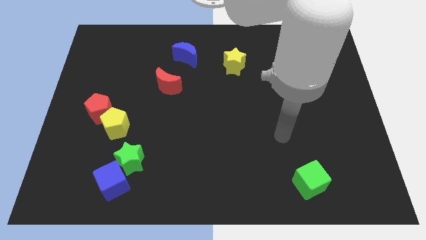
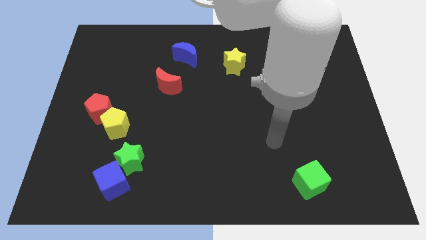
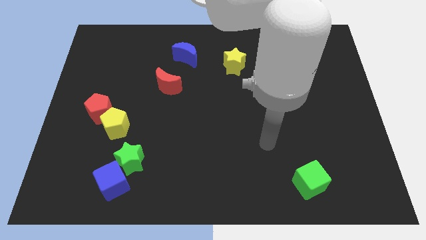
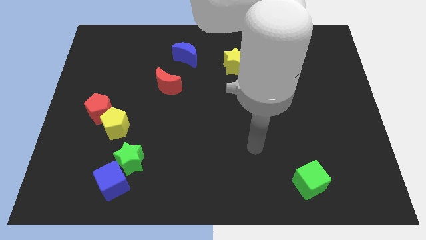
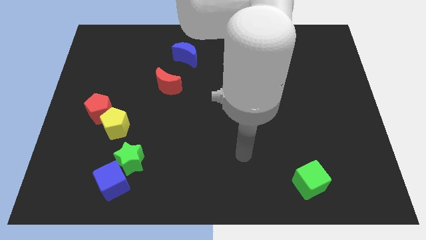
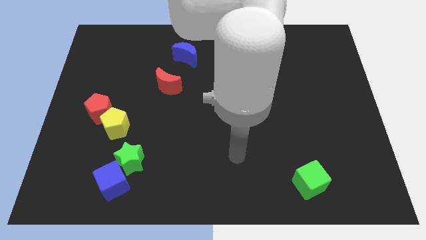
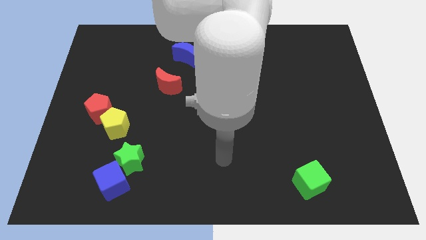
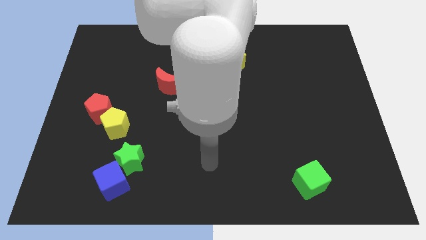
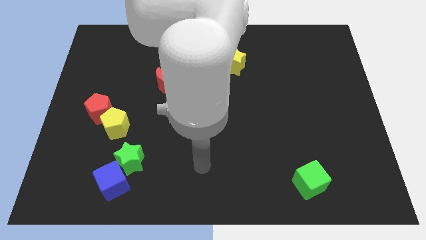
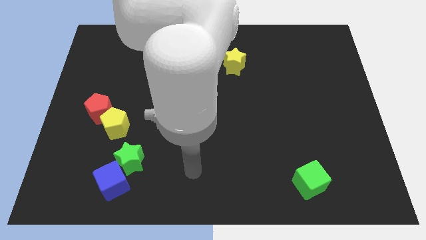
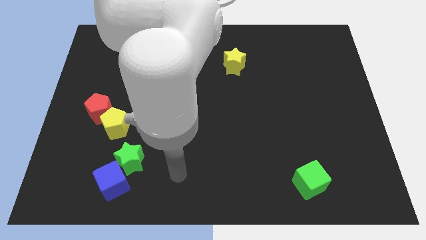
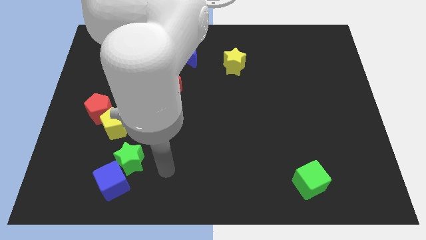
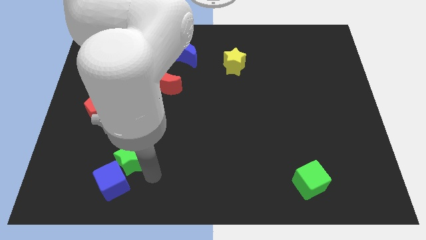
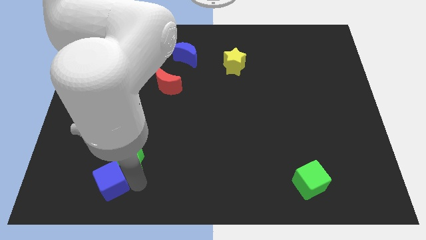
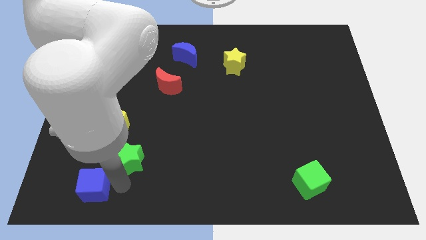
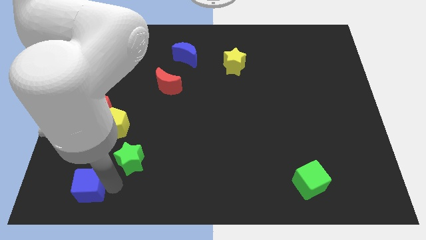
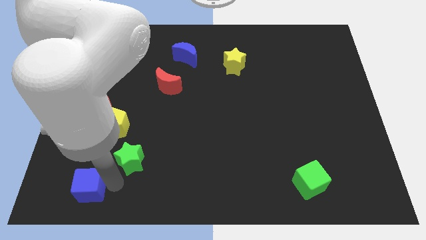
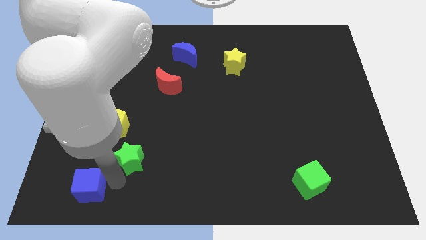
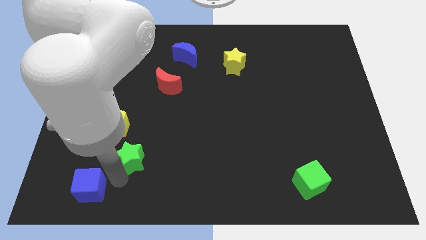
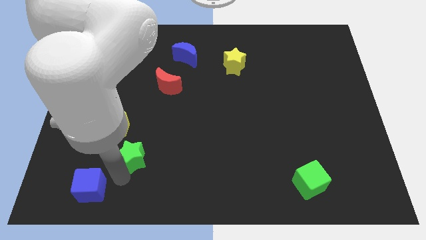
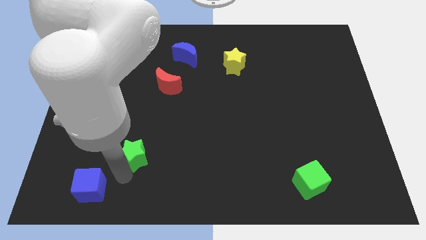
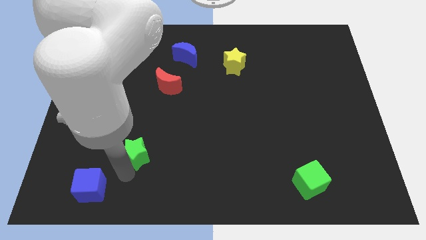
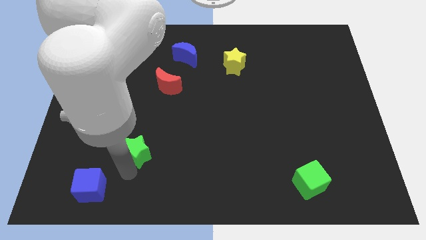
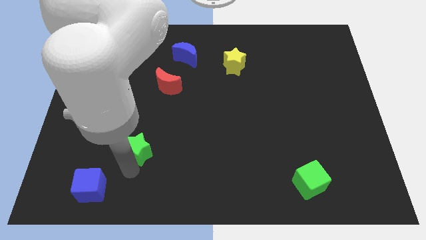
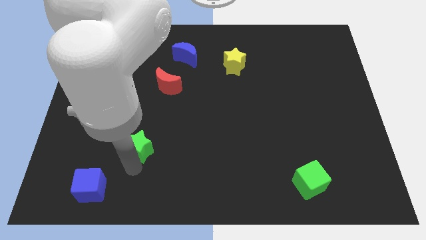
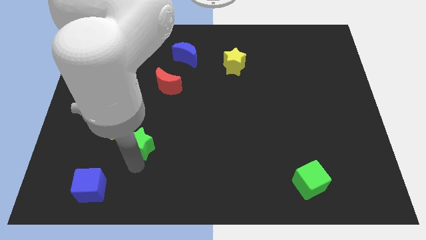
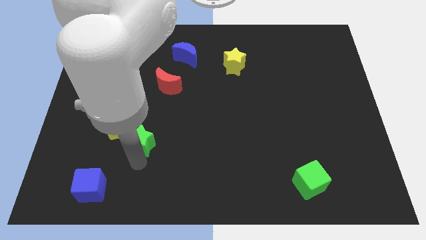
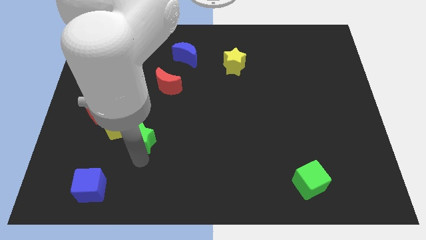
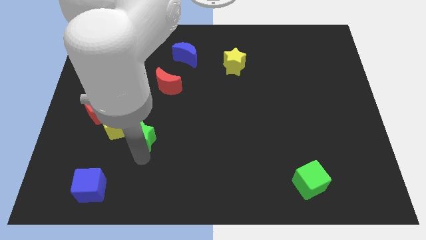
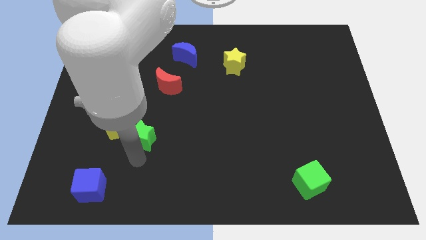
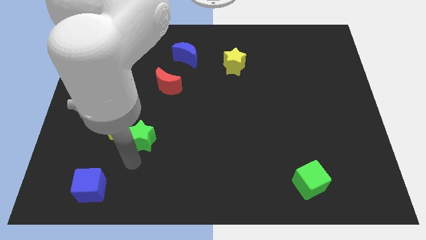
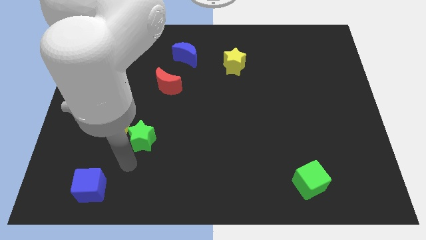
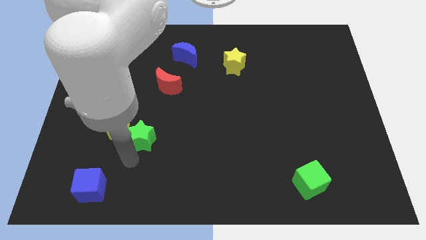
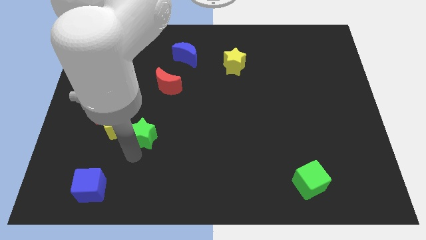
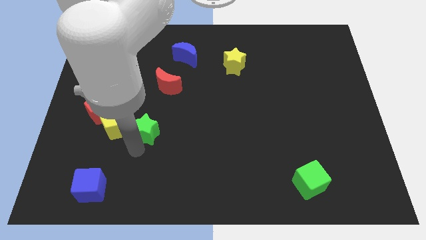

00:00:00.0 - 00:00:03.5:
slightly push the green star upwards

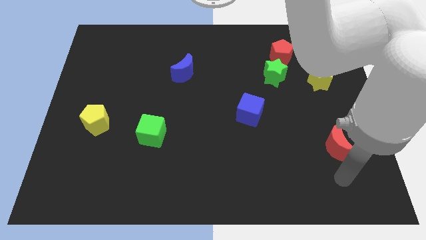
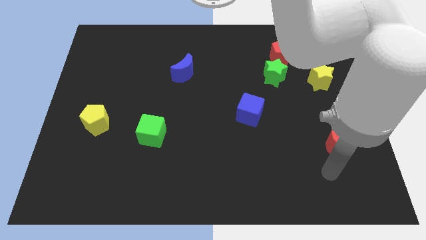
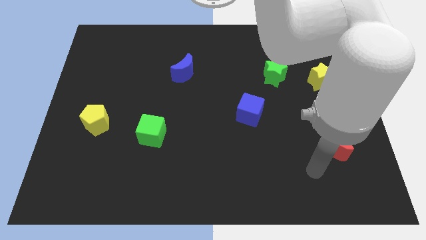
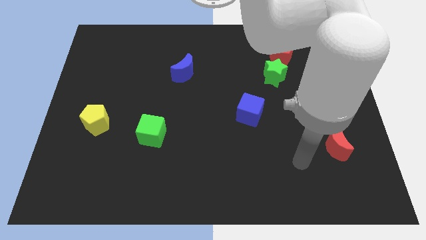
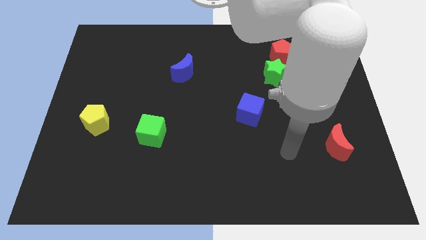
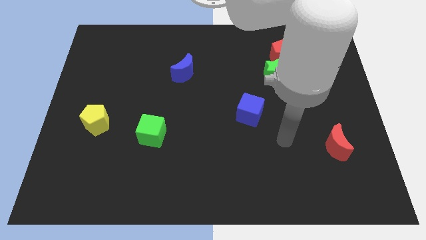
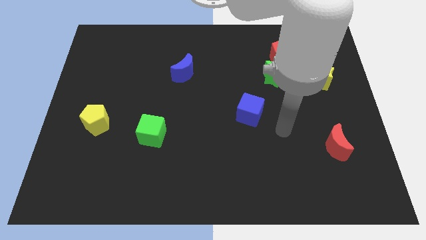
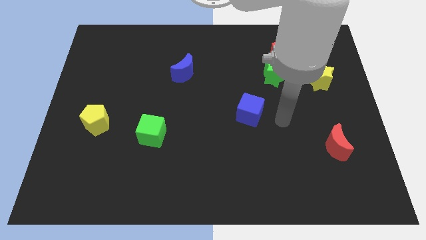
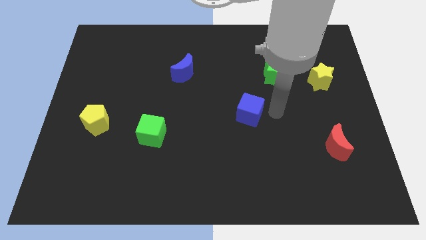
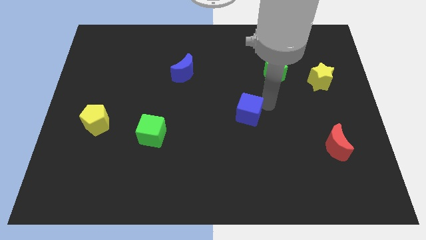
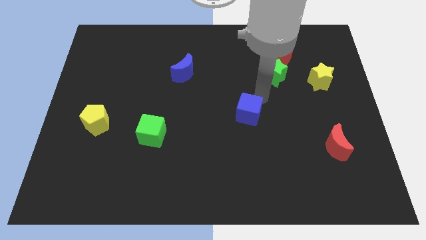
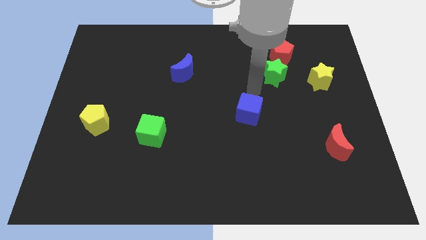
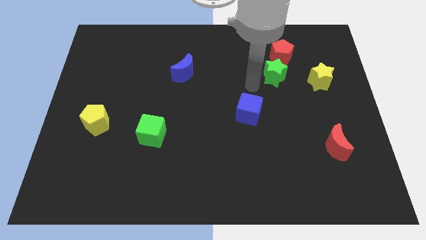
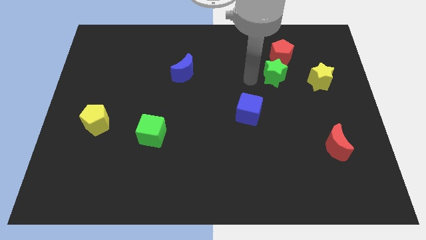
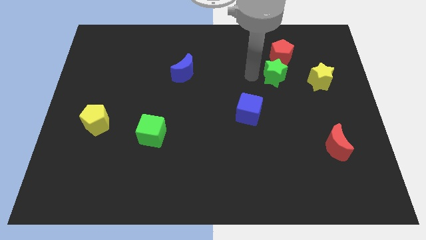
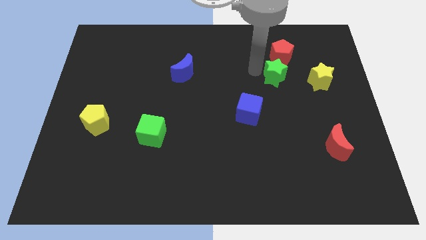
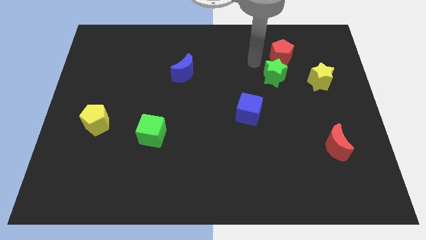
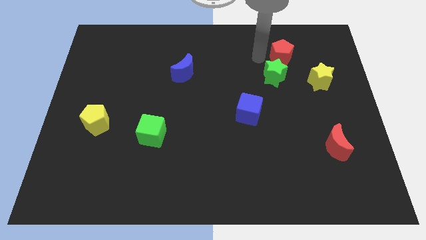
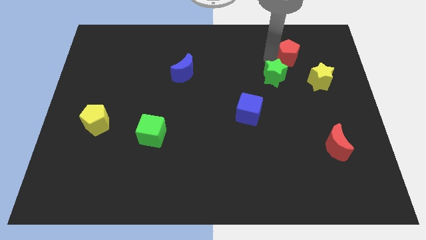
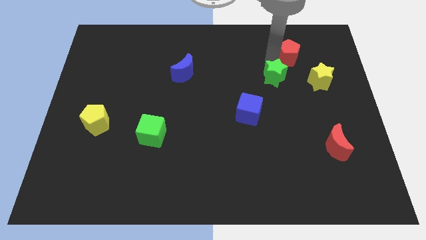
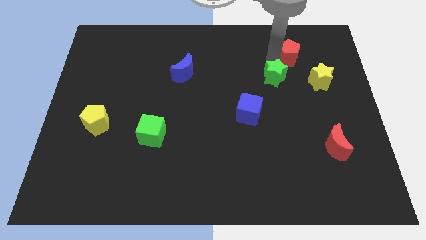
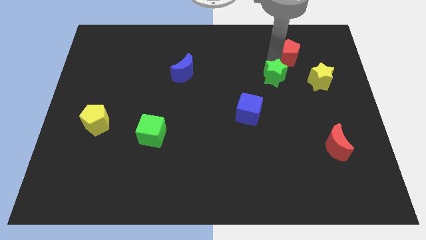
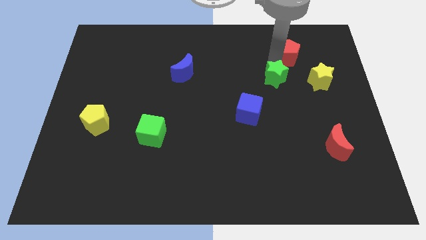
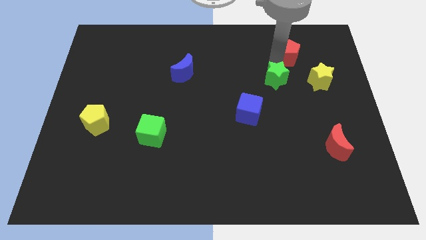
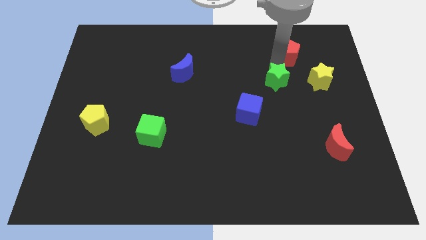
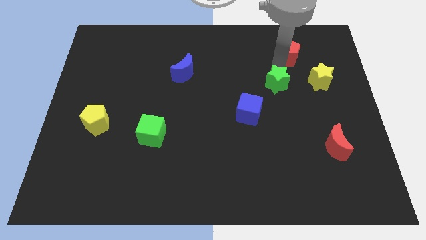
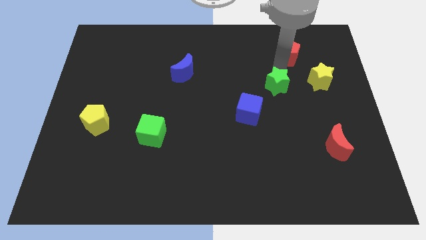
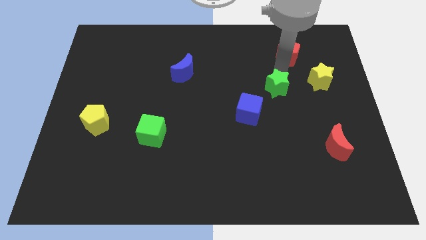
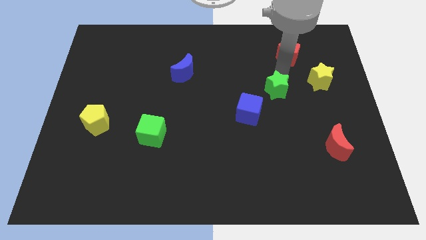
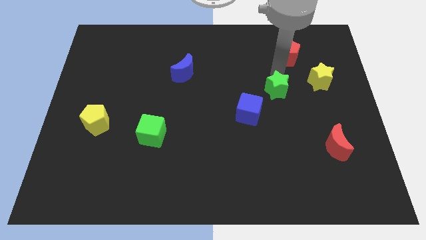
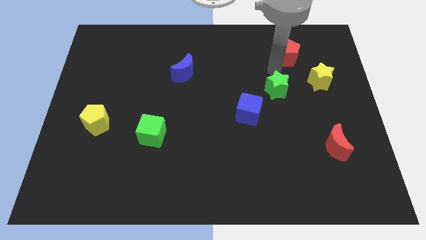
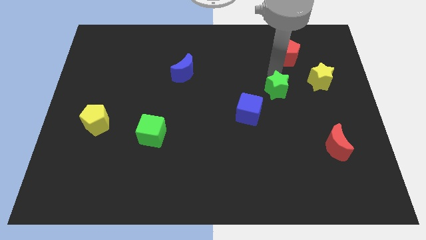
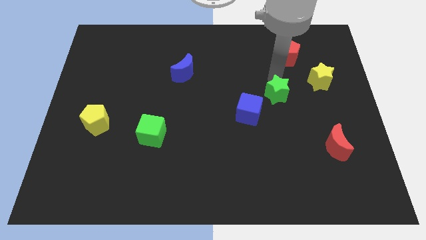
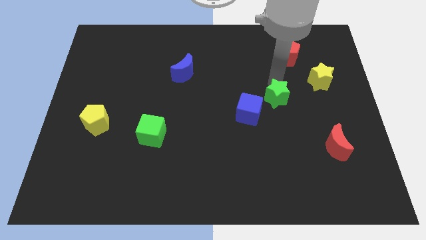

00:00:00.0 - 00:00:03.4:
slightly move the green star downwards

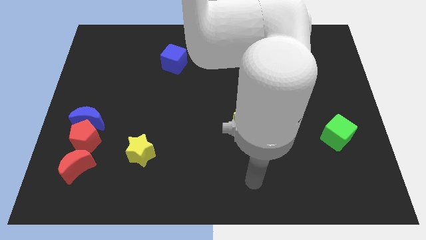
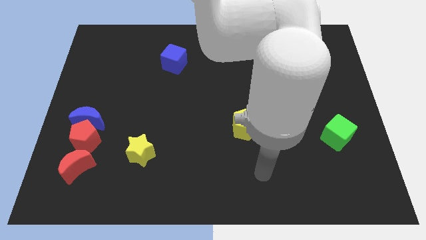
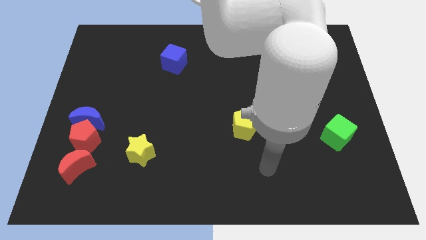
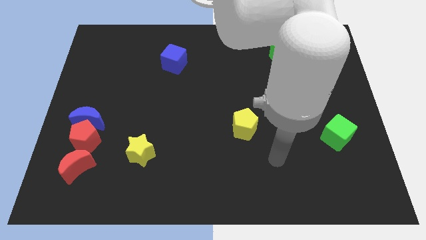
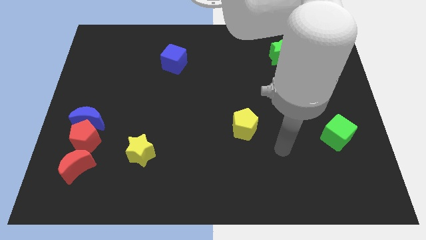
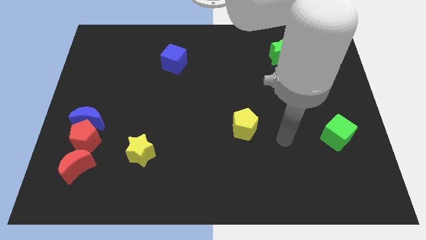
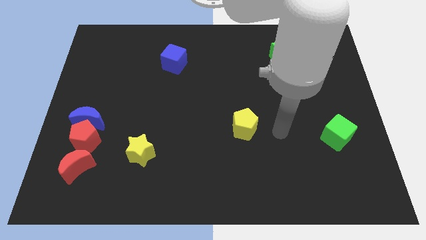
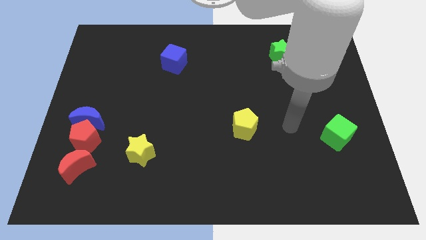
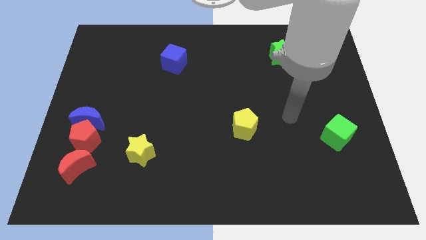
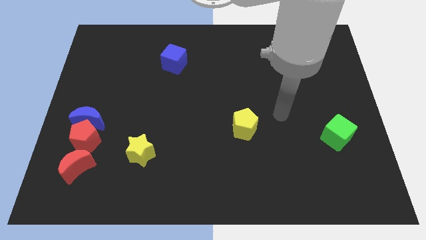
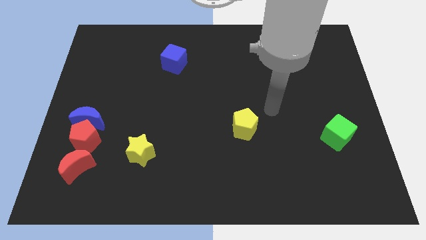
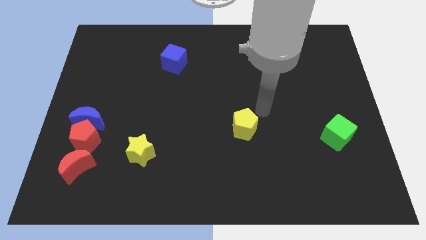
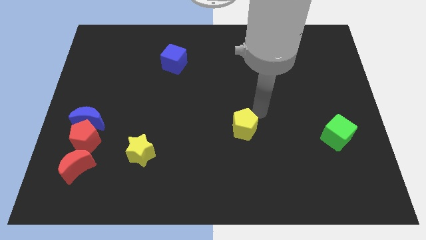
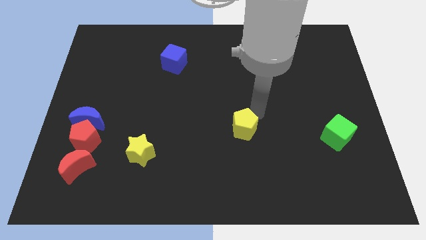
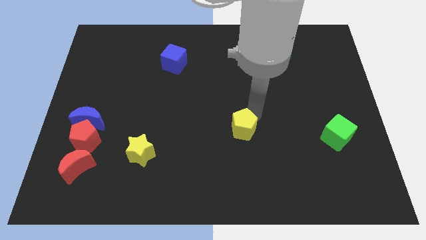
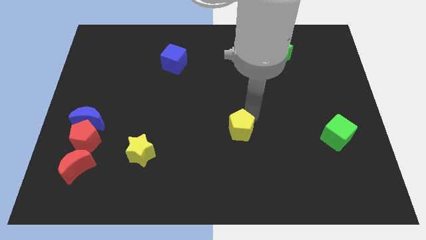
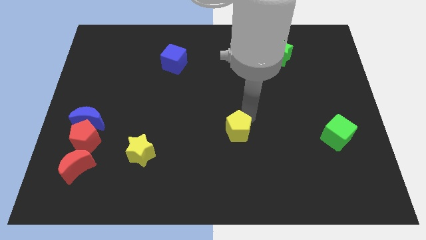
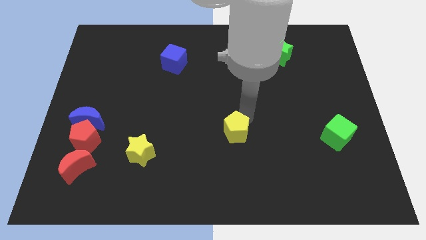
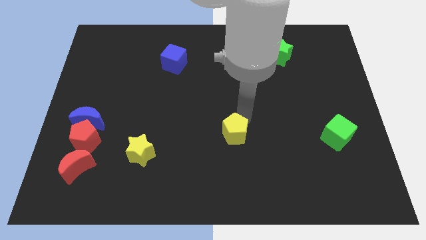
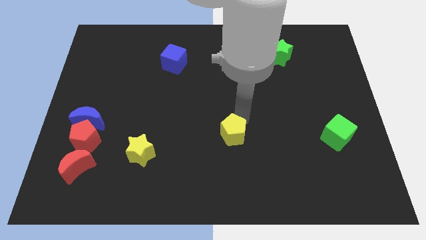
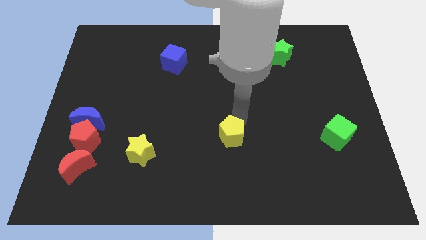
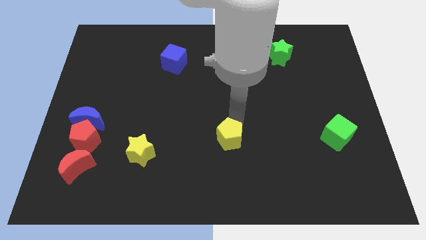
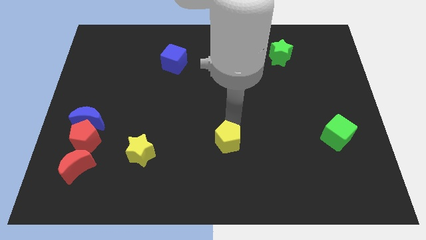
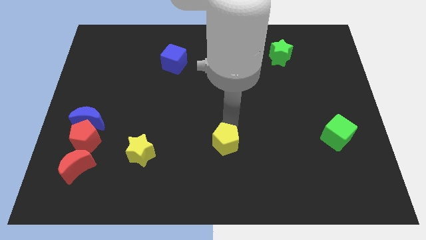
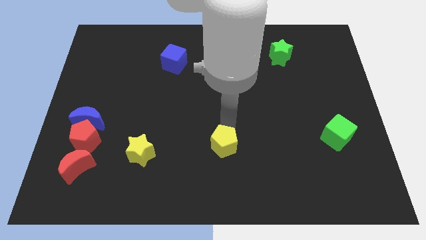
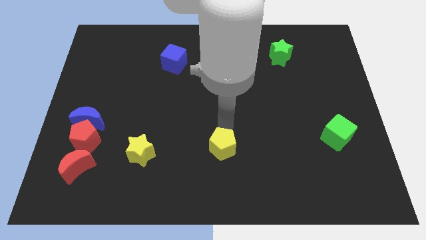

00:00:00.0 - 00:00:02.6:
slightly slide the yellow pentagon downwards and left diagonally
